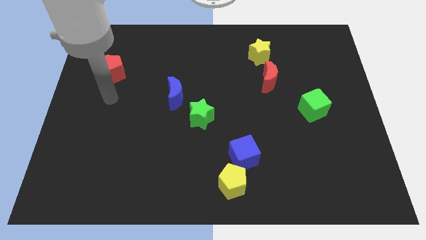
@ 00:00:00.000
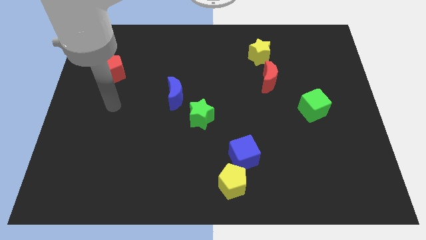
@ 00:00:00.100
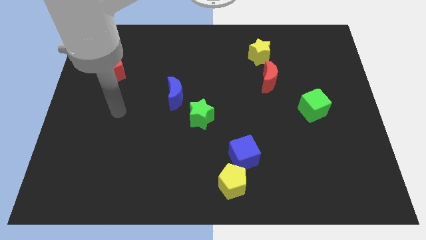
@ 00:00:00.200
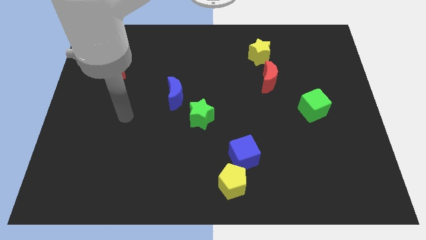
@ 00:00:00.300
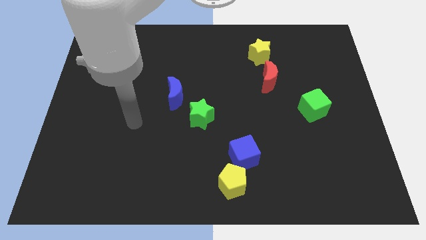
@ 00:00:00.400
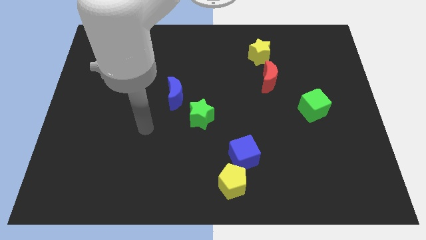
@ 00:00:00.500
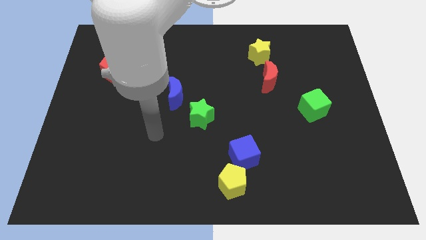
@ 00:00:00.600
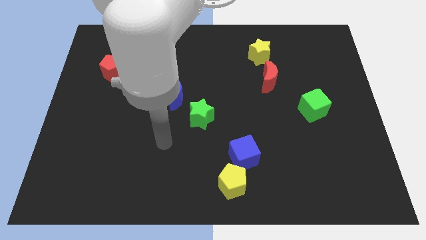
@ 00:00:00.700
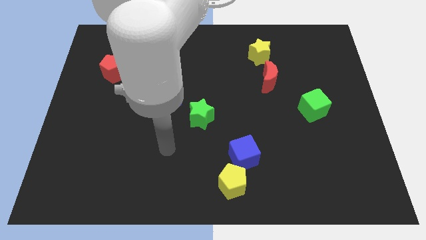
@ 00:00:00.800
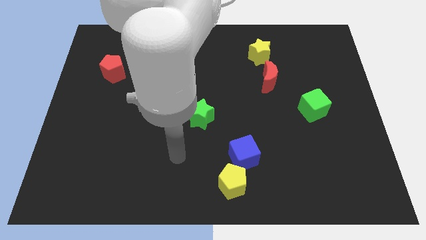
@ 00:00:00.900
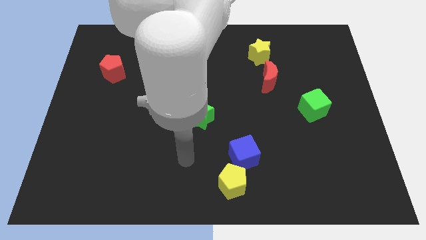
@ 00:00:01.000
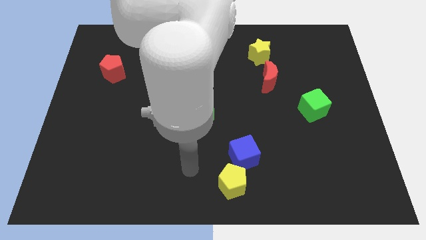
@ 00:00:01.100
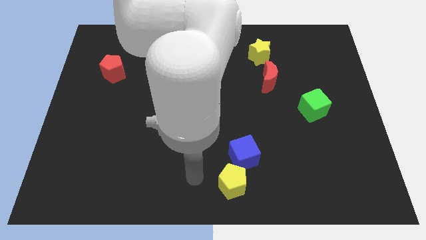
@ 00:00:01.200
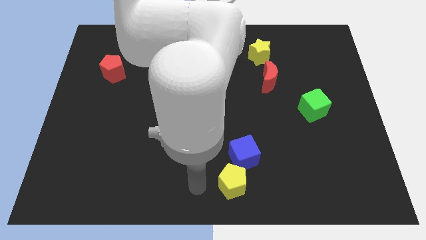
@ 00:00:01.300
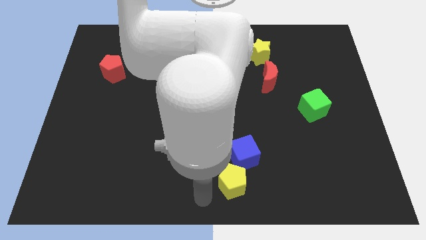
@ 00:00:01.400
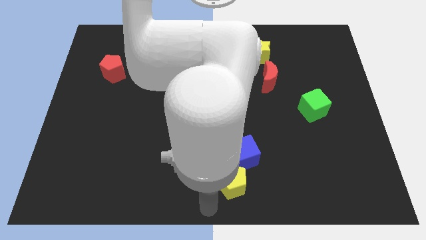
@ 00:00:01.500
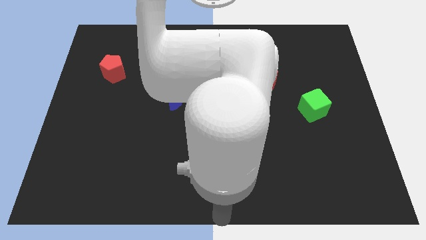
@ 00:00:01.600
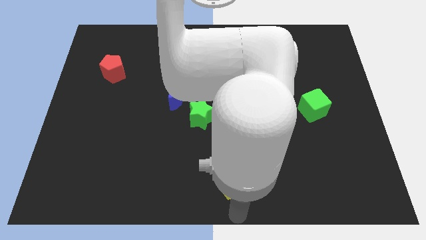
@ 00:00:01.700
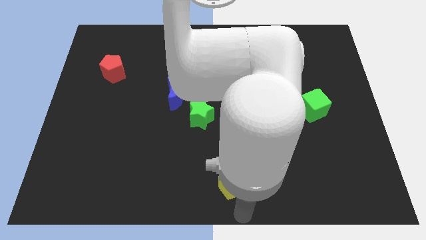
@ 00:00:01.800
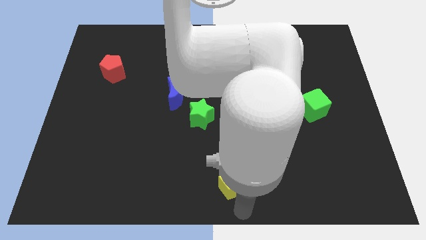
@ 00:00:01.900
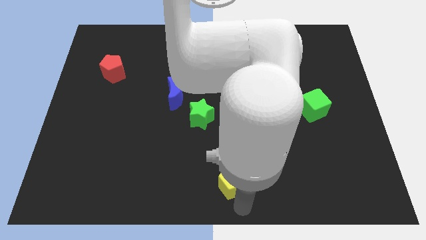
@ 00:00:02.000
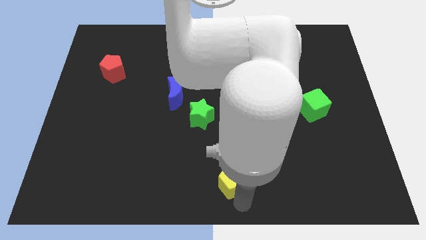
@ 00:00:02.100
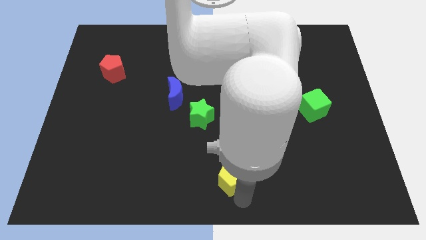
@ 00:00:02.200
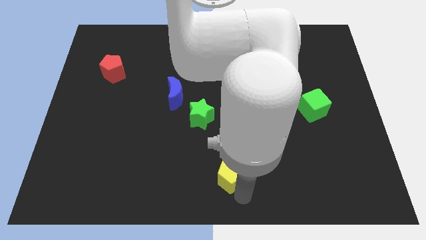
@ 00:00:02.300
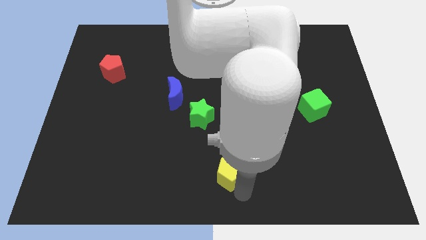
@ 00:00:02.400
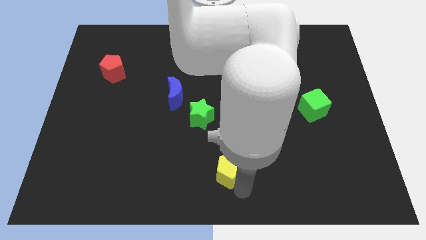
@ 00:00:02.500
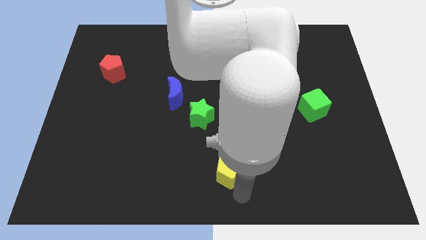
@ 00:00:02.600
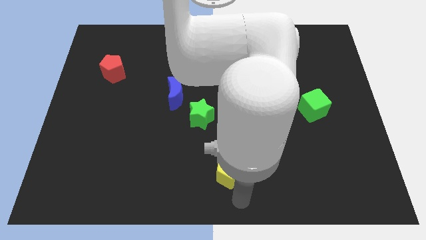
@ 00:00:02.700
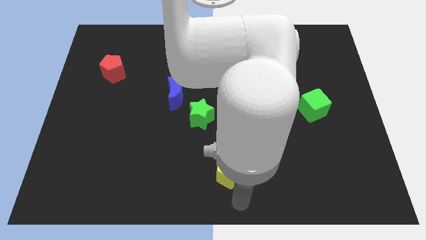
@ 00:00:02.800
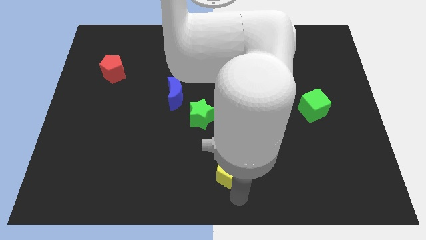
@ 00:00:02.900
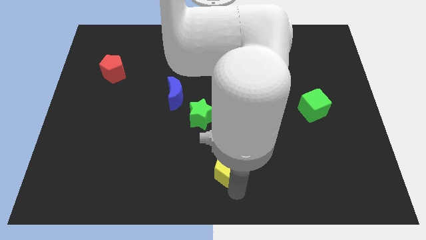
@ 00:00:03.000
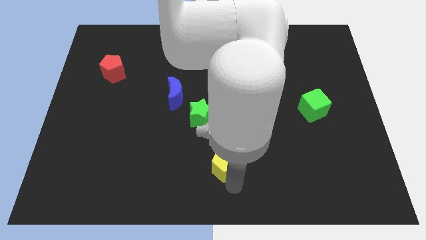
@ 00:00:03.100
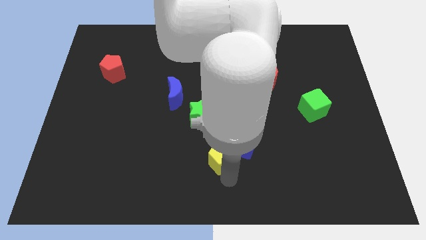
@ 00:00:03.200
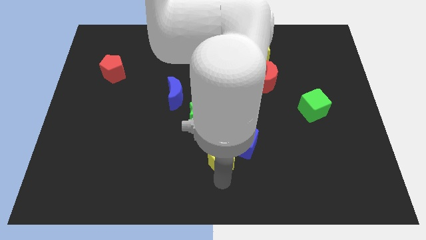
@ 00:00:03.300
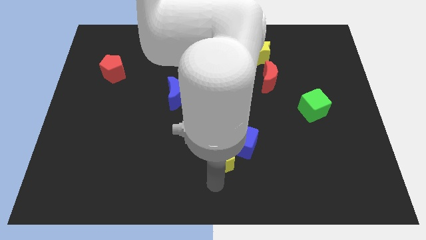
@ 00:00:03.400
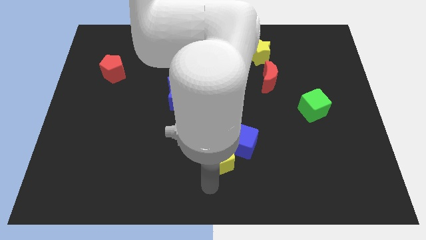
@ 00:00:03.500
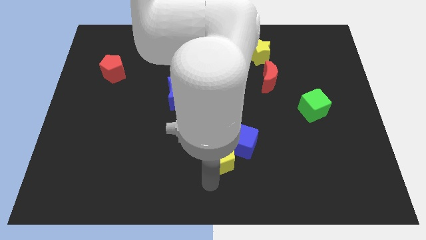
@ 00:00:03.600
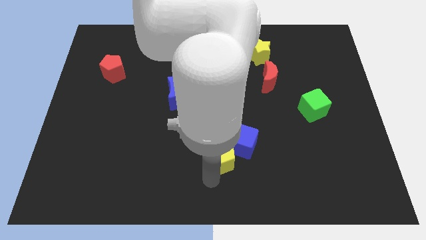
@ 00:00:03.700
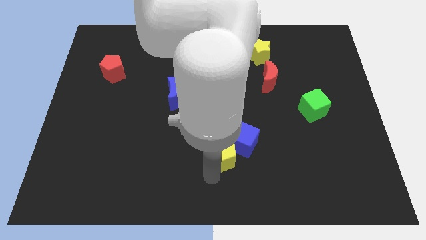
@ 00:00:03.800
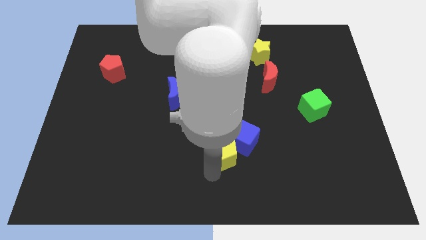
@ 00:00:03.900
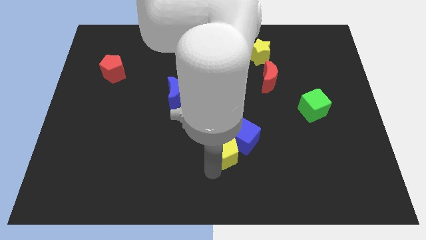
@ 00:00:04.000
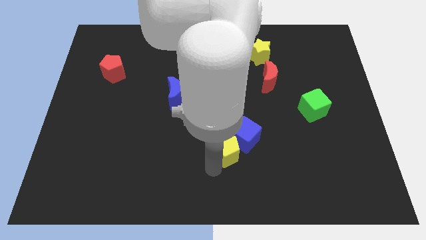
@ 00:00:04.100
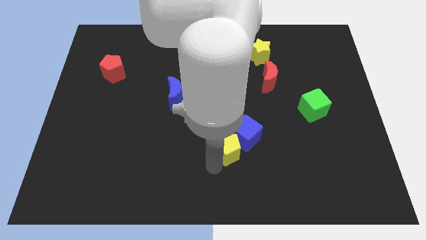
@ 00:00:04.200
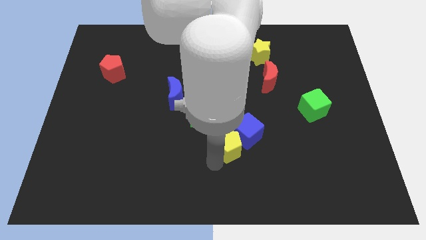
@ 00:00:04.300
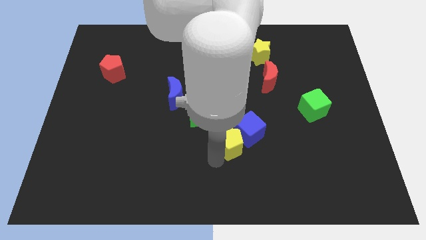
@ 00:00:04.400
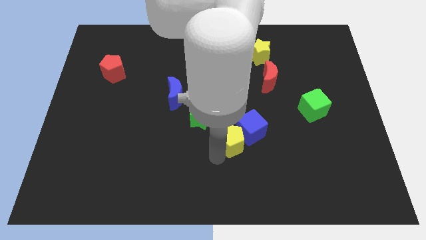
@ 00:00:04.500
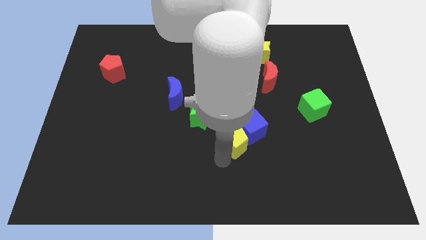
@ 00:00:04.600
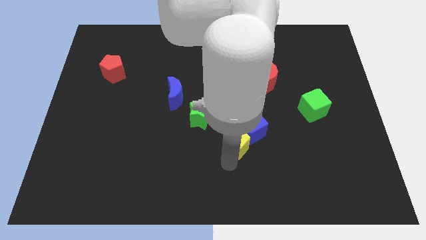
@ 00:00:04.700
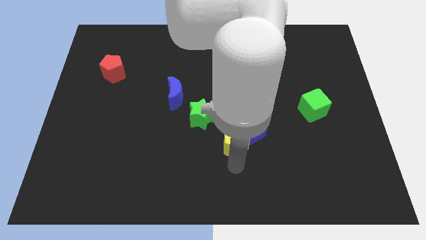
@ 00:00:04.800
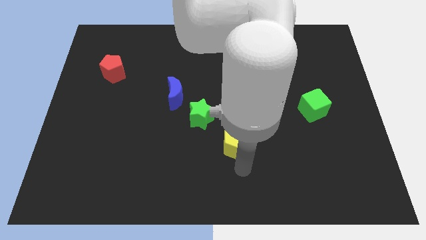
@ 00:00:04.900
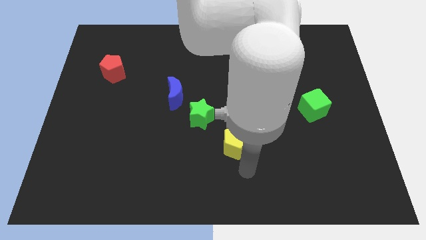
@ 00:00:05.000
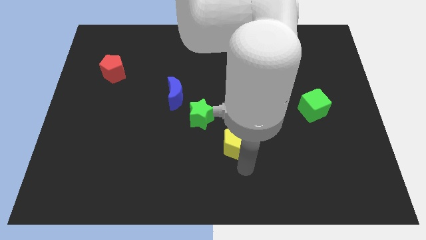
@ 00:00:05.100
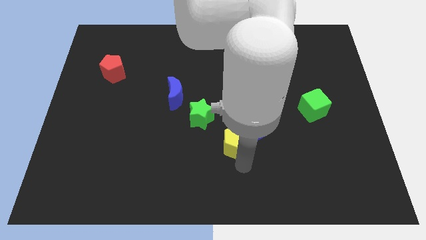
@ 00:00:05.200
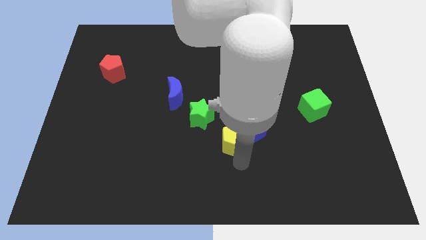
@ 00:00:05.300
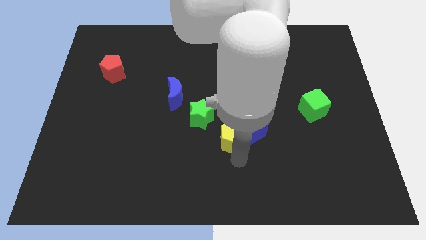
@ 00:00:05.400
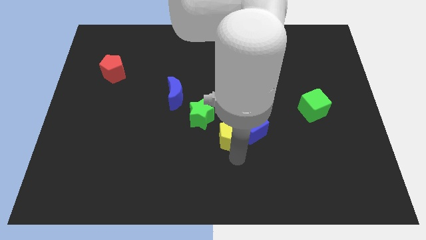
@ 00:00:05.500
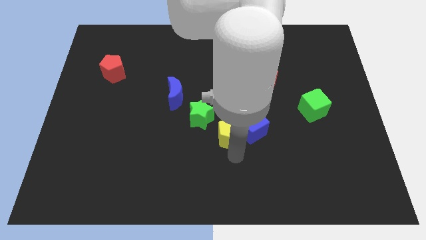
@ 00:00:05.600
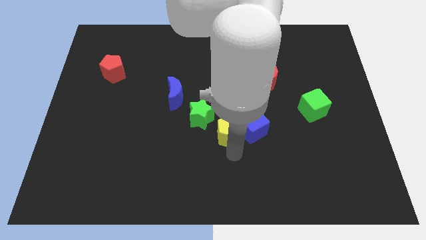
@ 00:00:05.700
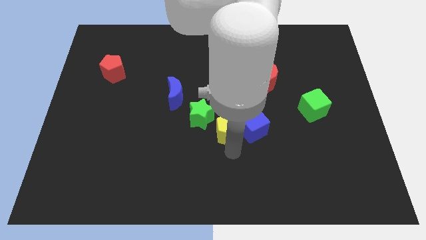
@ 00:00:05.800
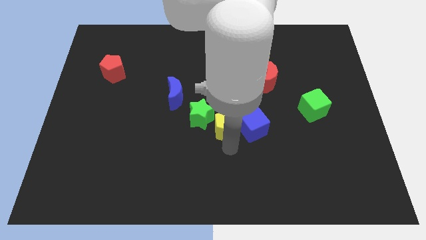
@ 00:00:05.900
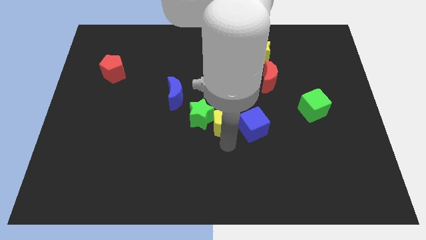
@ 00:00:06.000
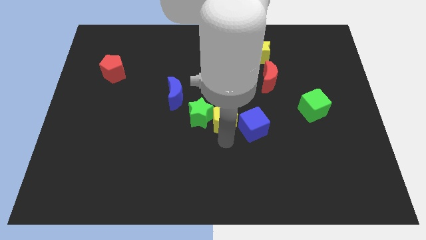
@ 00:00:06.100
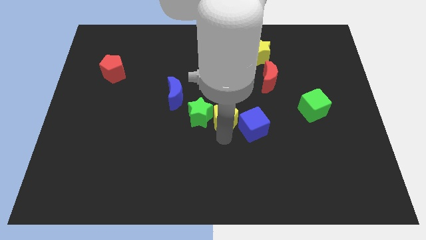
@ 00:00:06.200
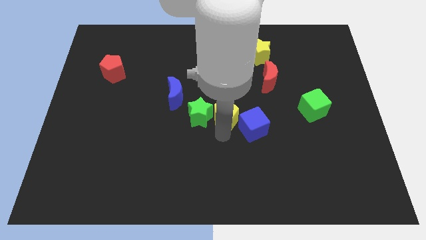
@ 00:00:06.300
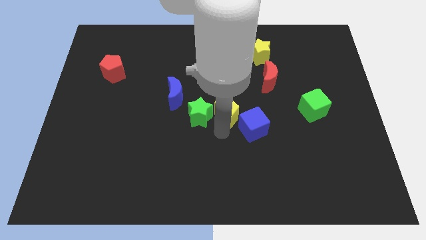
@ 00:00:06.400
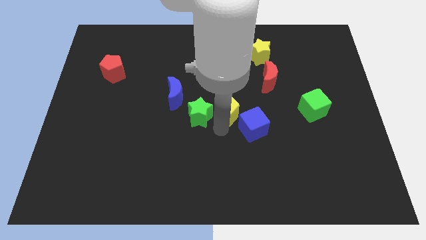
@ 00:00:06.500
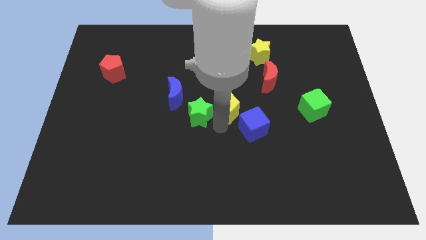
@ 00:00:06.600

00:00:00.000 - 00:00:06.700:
slide the yellow pentagon right of the blue moon
